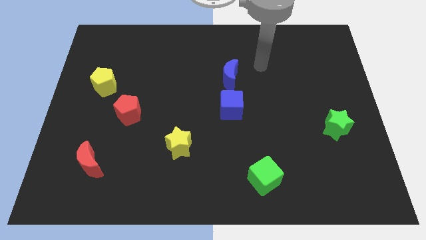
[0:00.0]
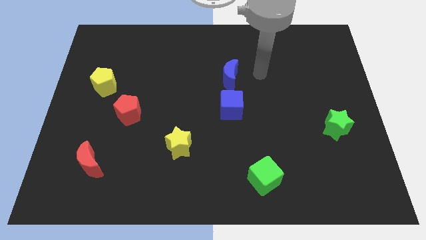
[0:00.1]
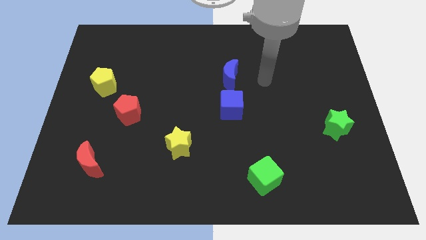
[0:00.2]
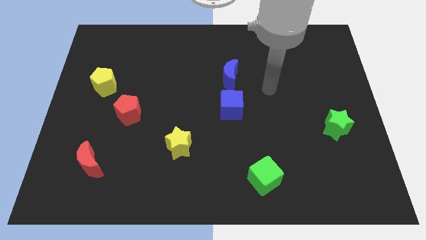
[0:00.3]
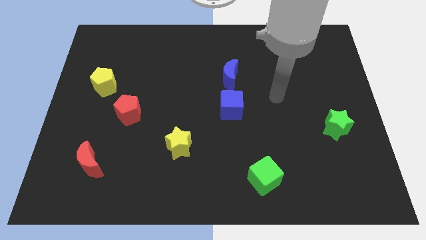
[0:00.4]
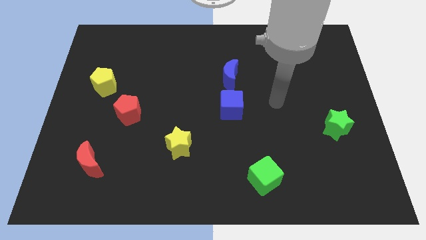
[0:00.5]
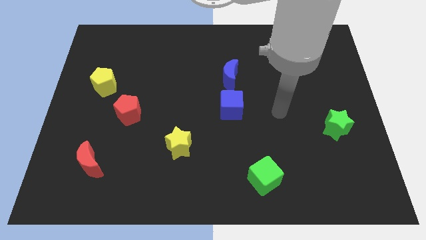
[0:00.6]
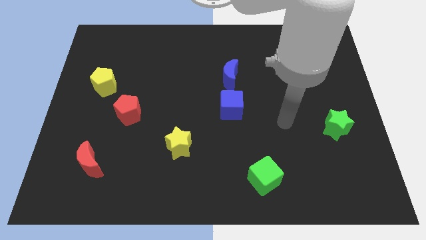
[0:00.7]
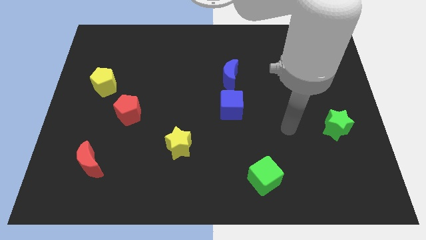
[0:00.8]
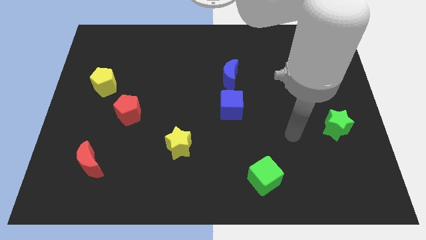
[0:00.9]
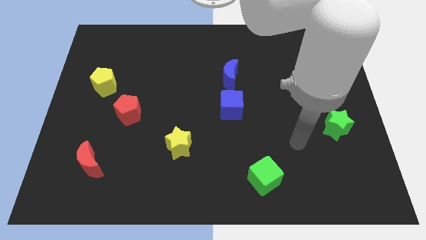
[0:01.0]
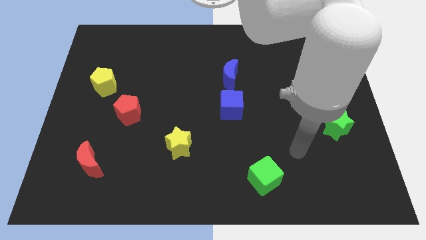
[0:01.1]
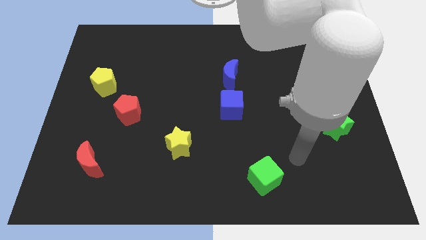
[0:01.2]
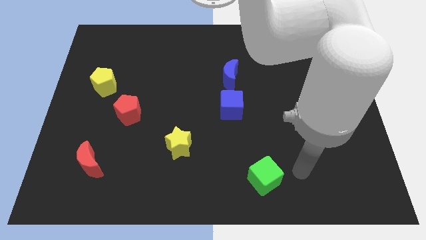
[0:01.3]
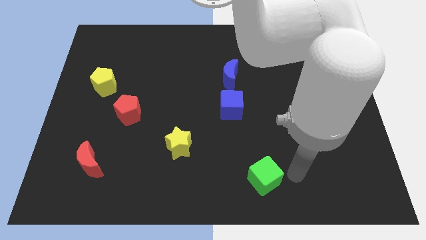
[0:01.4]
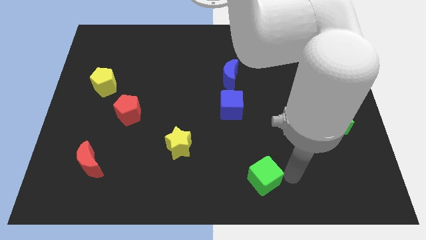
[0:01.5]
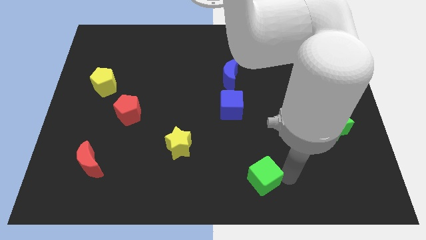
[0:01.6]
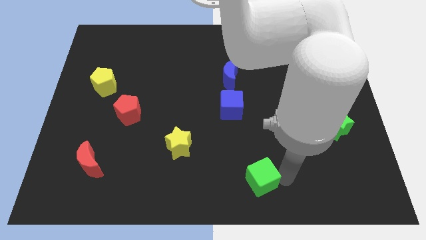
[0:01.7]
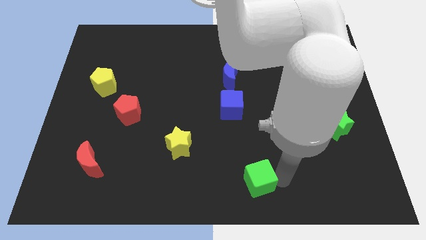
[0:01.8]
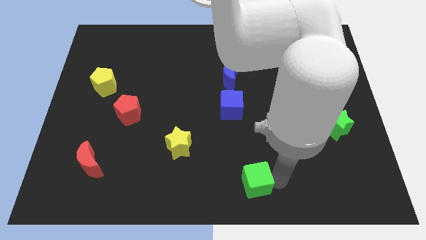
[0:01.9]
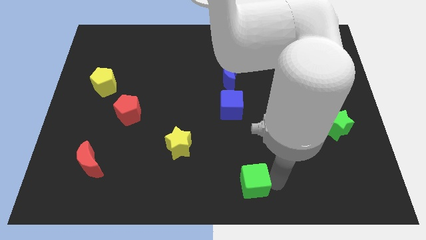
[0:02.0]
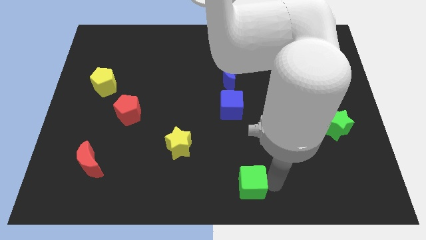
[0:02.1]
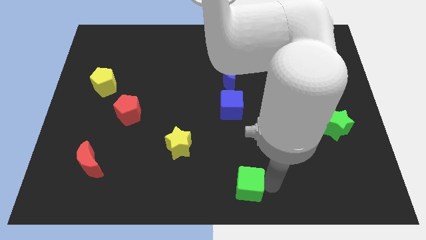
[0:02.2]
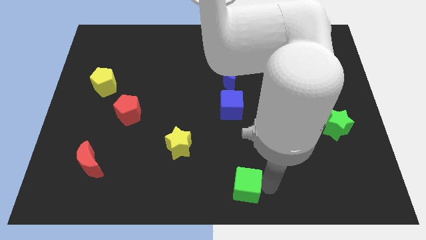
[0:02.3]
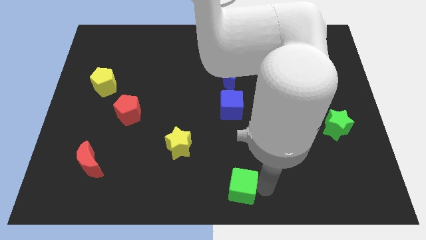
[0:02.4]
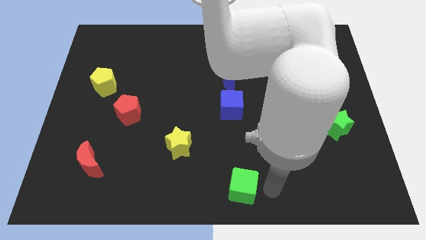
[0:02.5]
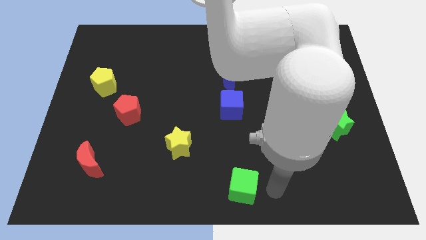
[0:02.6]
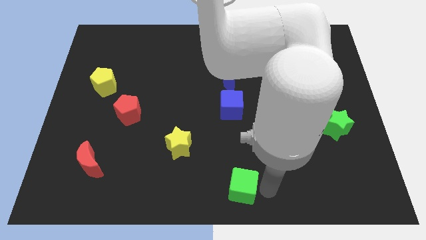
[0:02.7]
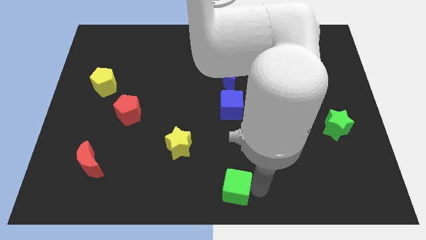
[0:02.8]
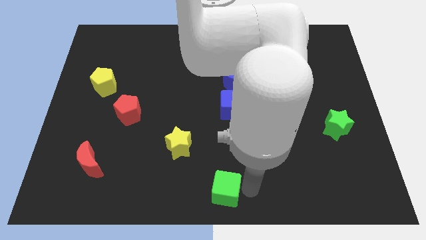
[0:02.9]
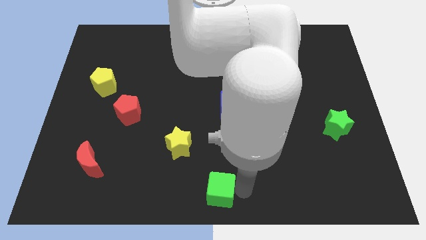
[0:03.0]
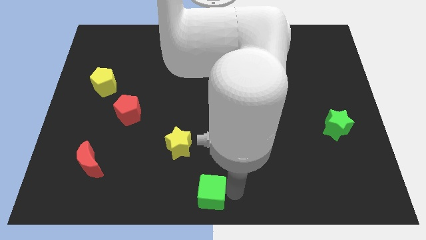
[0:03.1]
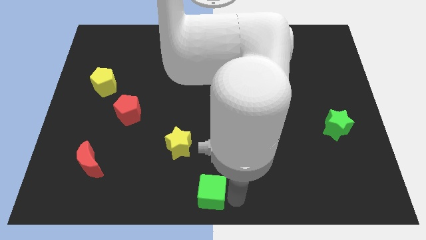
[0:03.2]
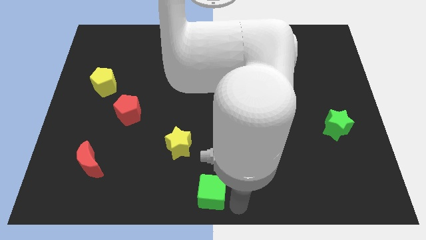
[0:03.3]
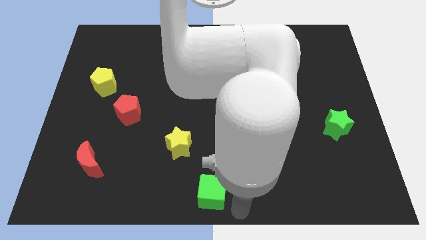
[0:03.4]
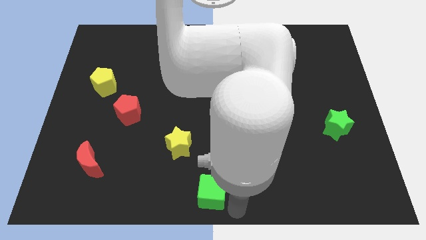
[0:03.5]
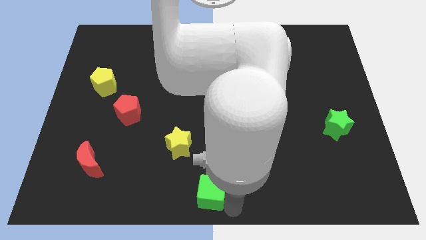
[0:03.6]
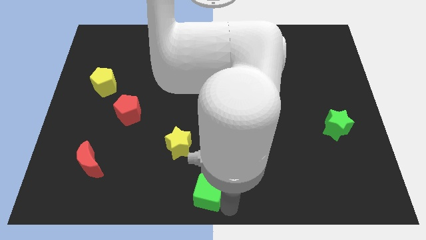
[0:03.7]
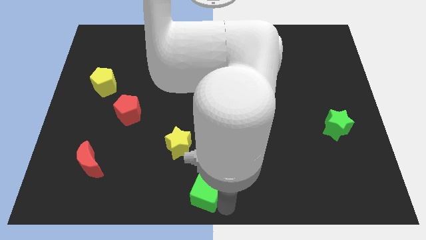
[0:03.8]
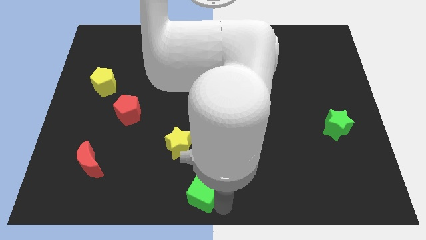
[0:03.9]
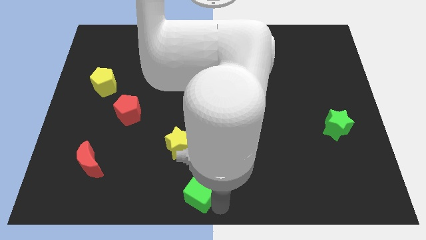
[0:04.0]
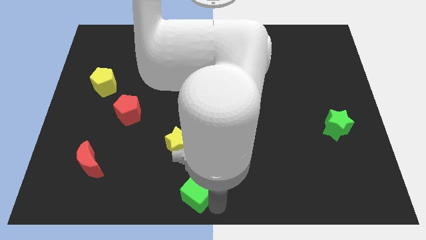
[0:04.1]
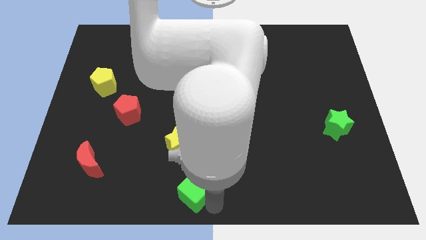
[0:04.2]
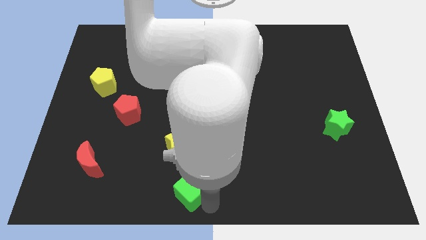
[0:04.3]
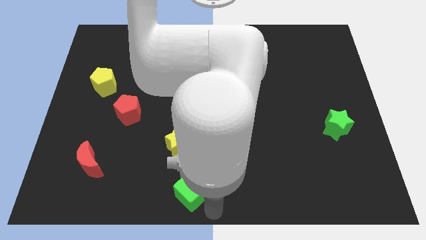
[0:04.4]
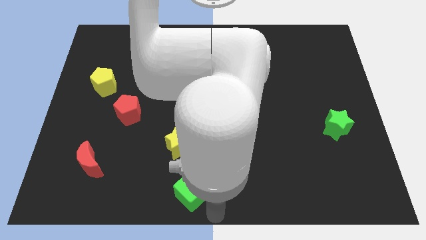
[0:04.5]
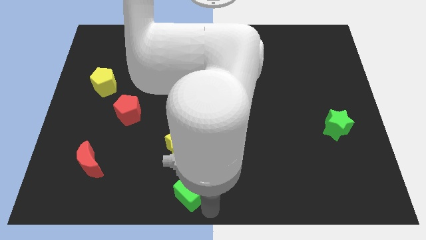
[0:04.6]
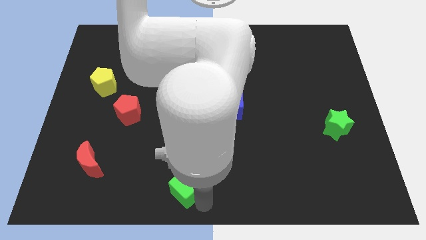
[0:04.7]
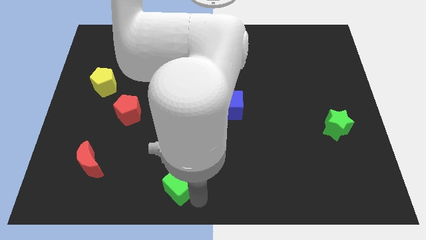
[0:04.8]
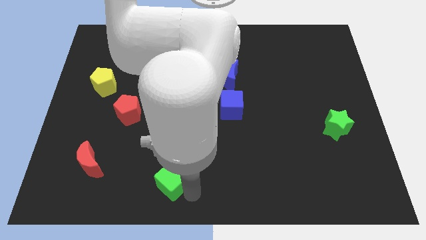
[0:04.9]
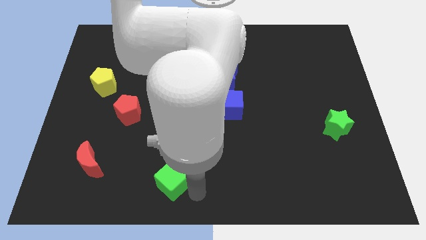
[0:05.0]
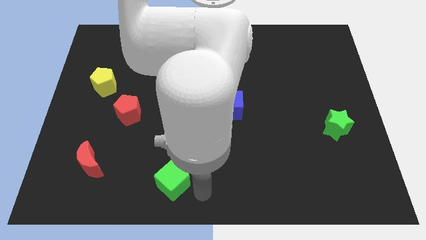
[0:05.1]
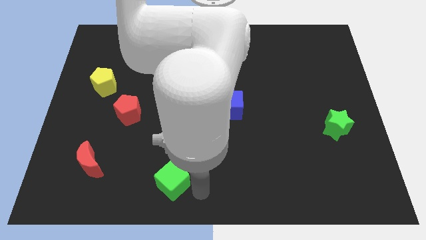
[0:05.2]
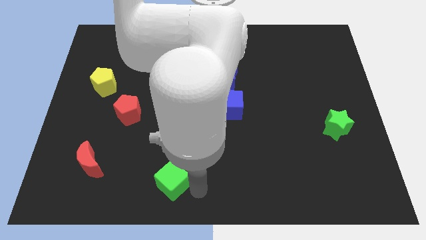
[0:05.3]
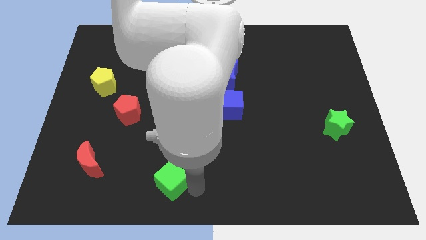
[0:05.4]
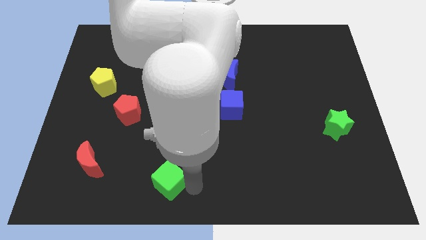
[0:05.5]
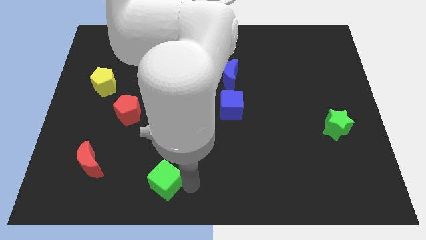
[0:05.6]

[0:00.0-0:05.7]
push the green cube left

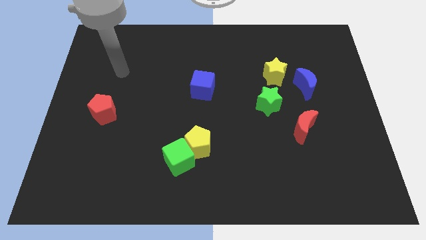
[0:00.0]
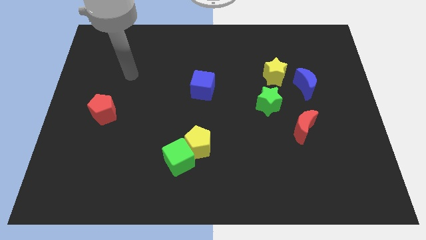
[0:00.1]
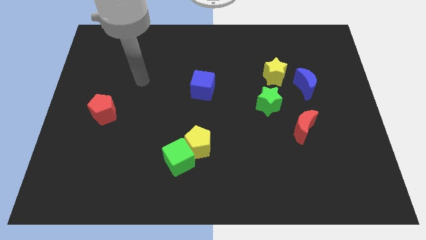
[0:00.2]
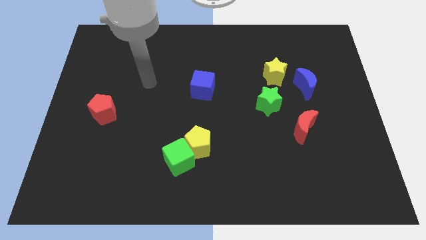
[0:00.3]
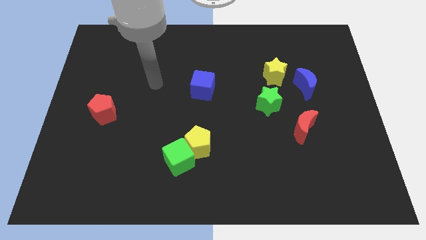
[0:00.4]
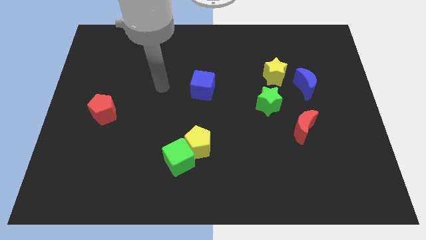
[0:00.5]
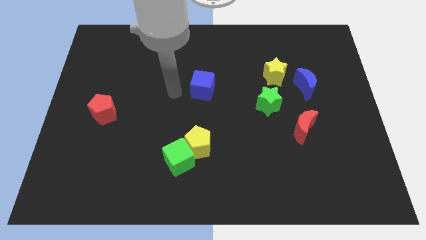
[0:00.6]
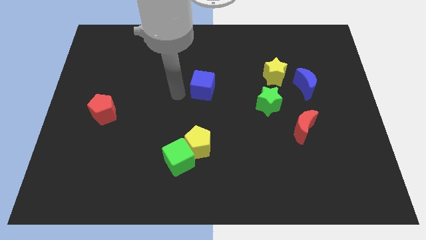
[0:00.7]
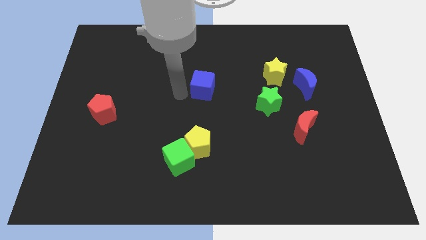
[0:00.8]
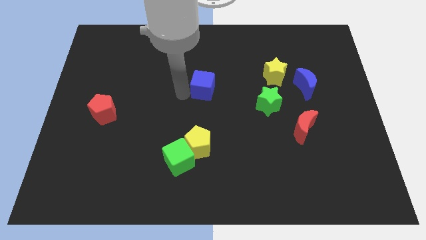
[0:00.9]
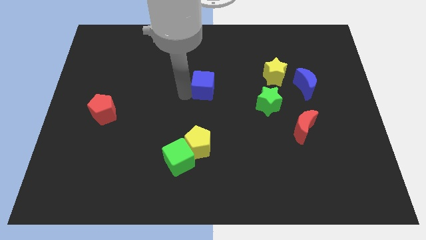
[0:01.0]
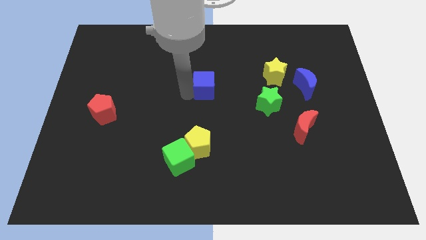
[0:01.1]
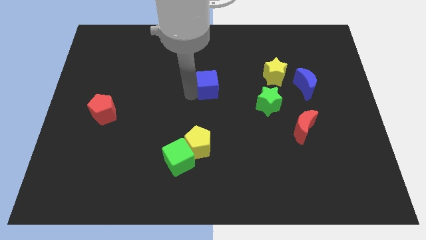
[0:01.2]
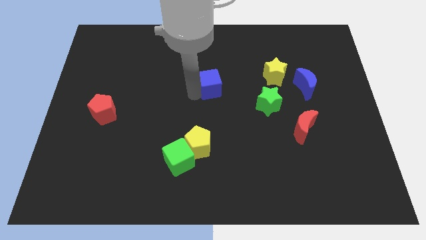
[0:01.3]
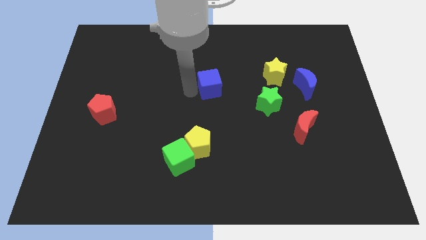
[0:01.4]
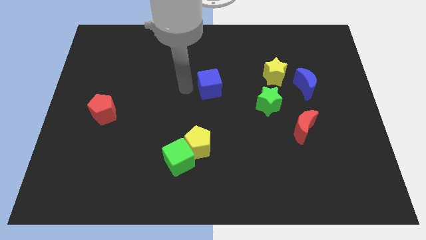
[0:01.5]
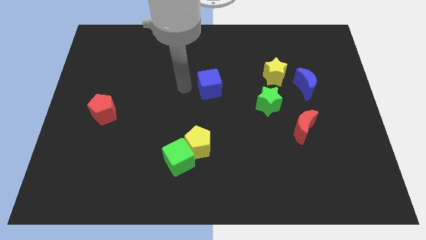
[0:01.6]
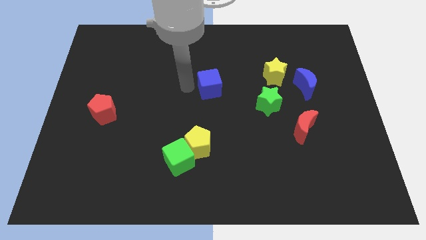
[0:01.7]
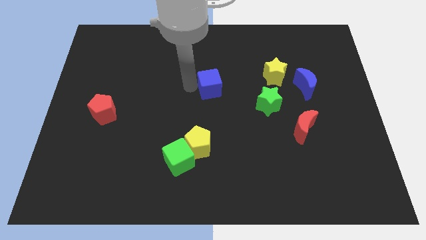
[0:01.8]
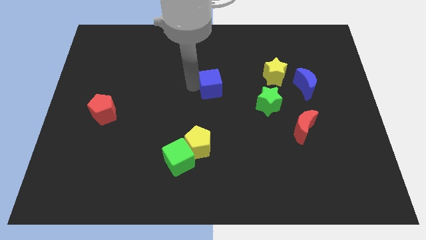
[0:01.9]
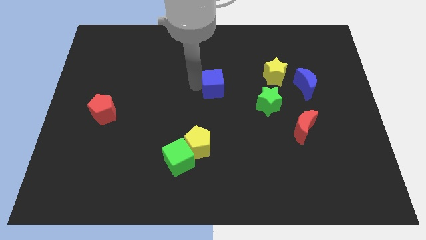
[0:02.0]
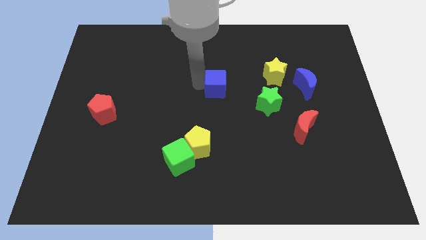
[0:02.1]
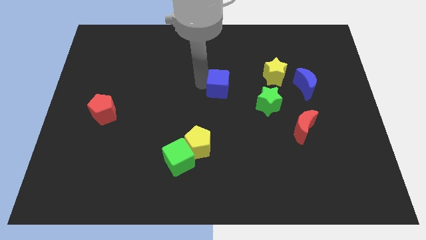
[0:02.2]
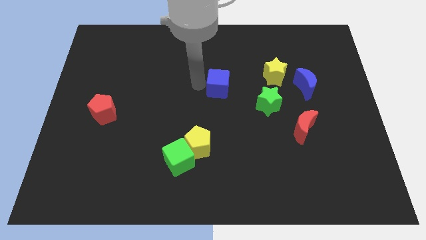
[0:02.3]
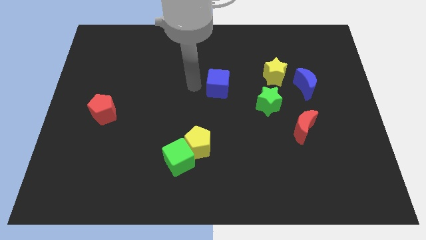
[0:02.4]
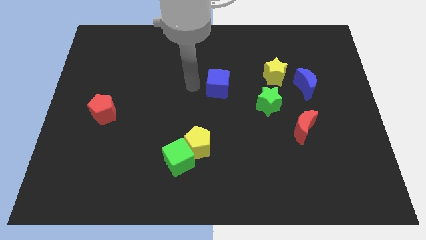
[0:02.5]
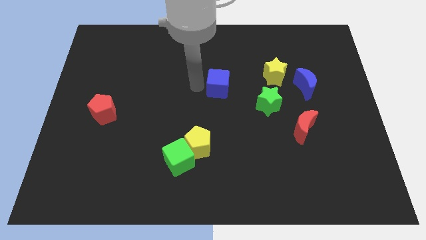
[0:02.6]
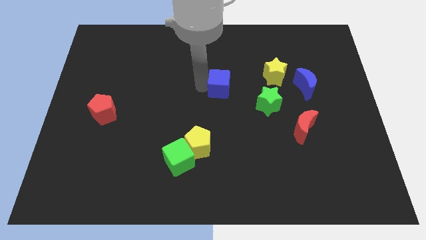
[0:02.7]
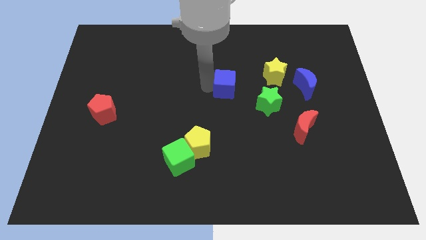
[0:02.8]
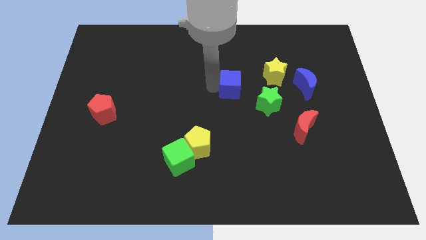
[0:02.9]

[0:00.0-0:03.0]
slightly slide the blue cube right
